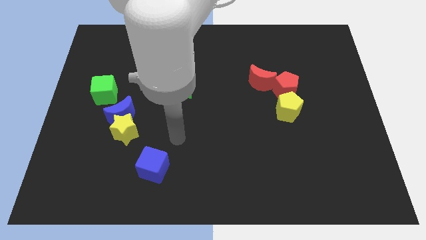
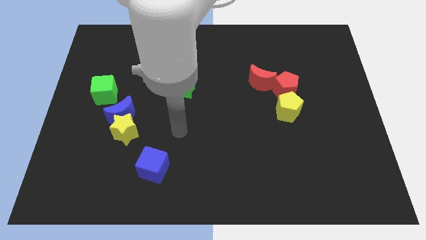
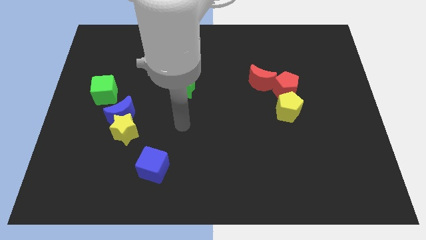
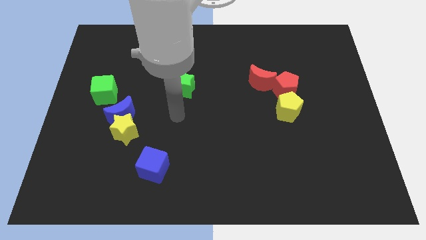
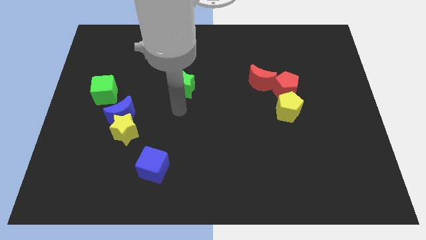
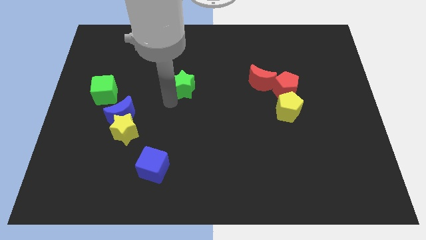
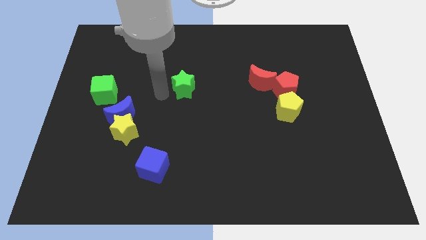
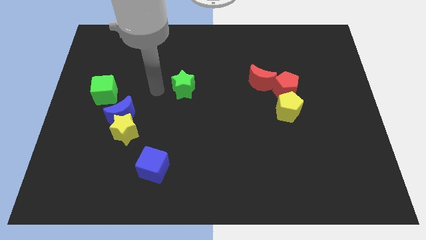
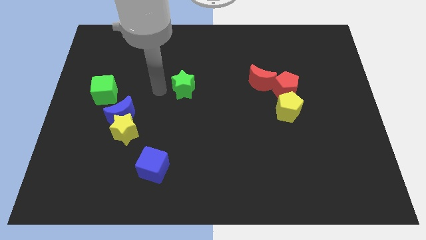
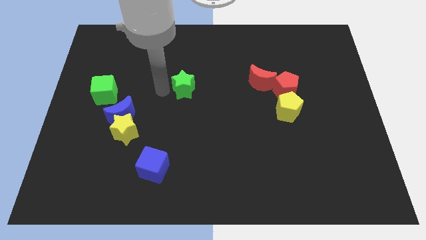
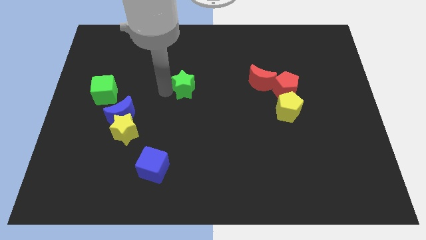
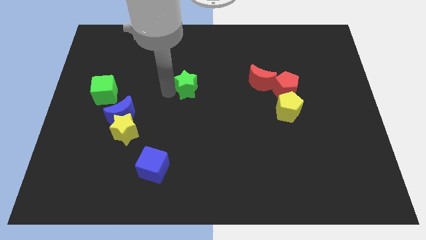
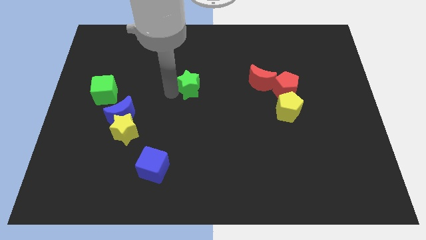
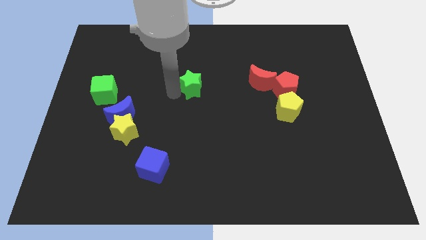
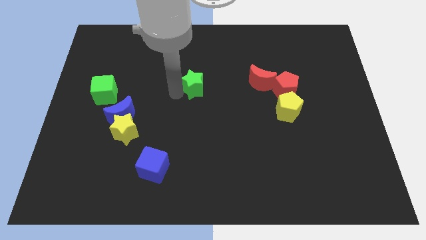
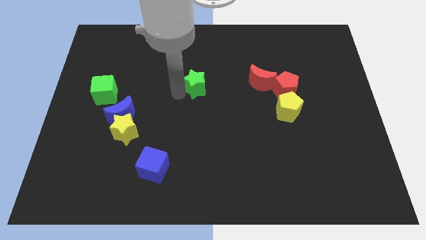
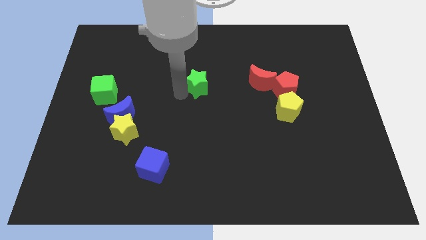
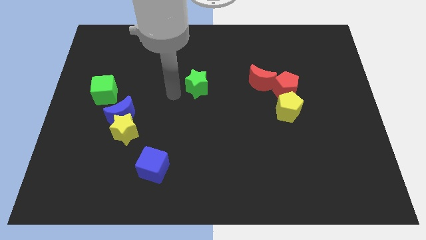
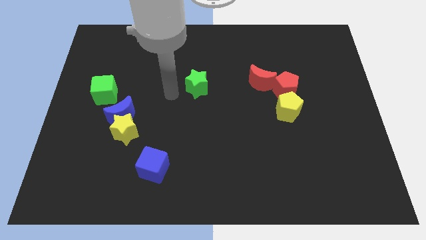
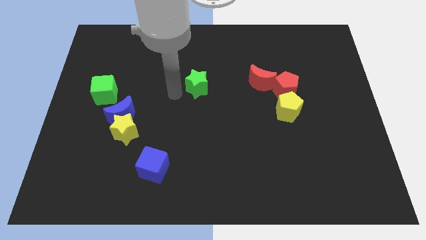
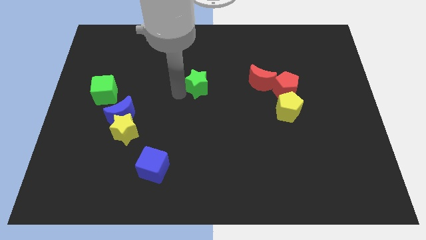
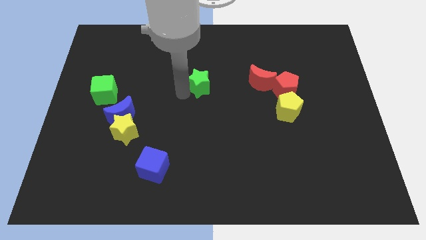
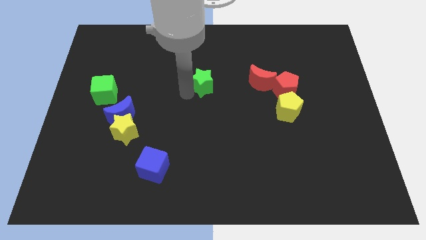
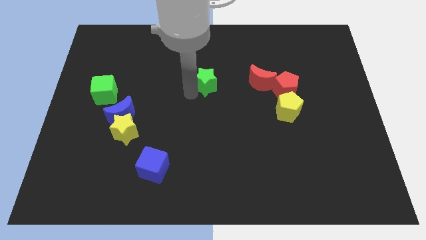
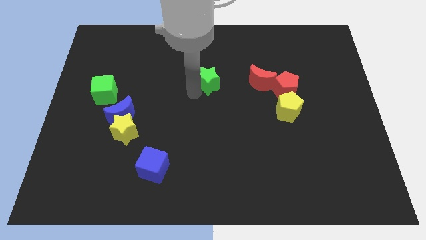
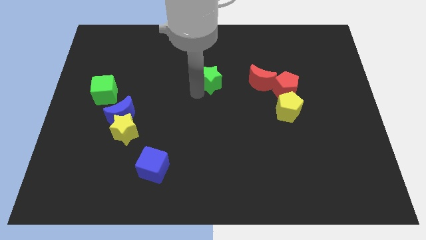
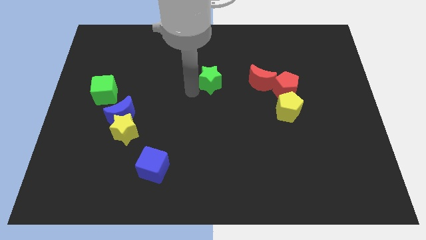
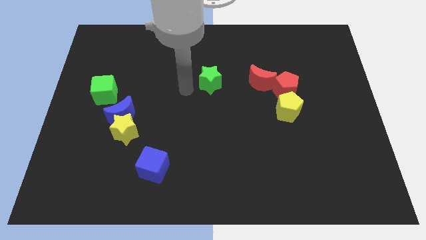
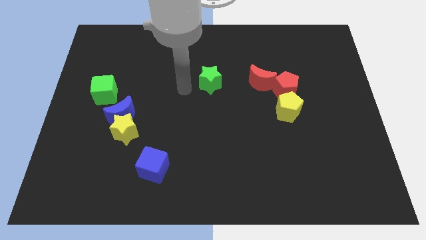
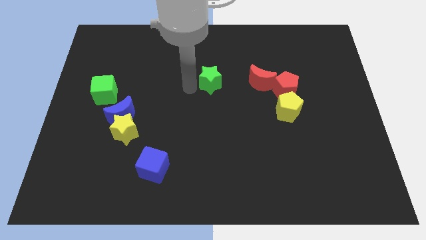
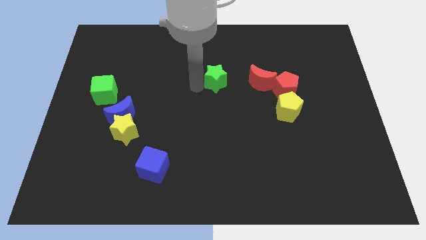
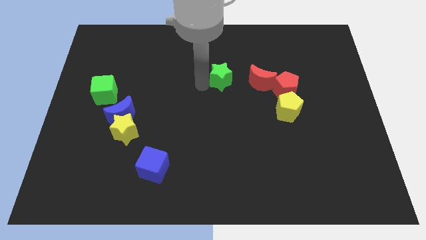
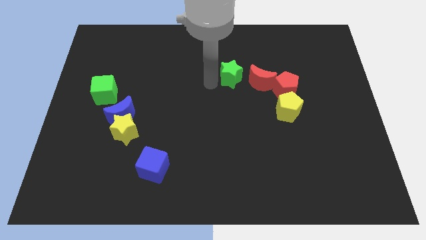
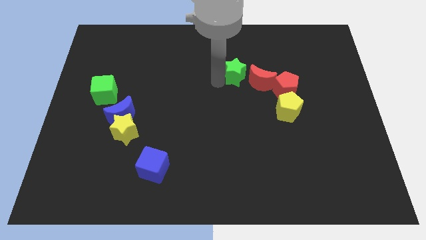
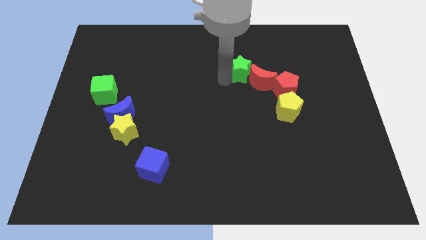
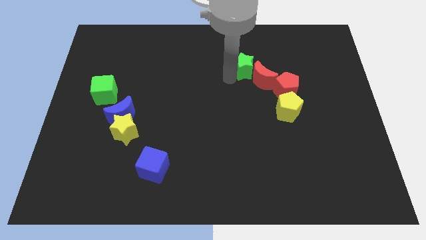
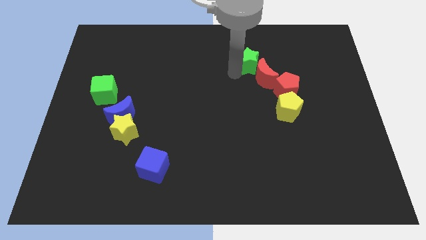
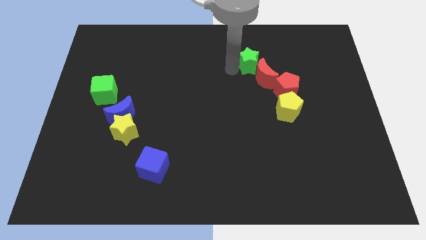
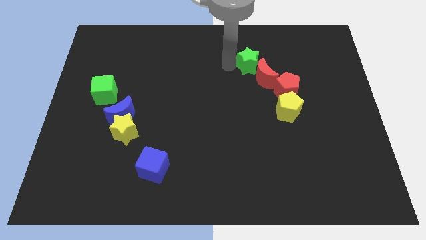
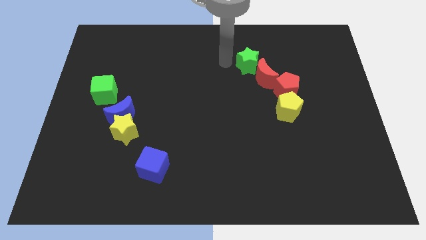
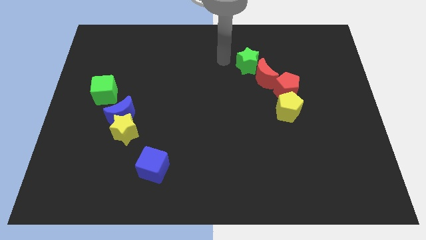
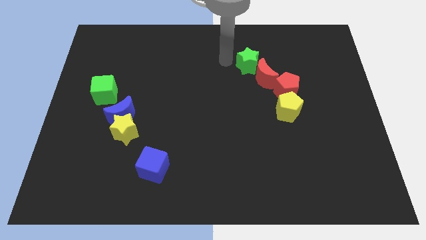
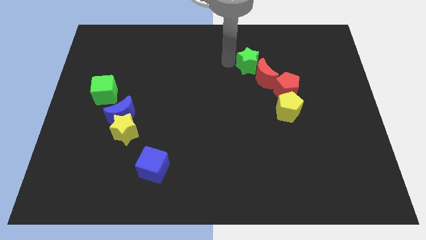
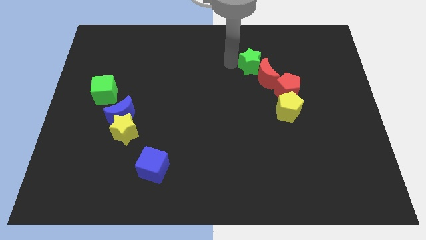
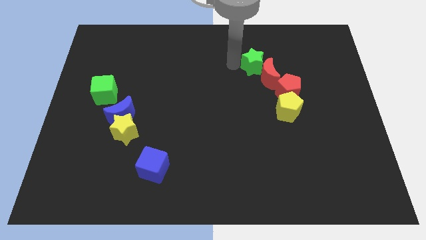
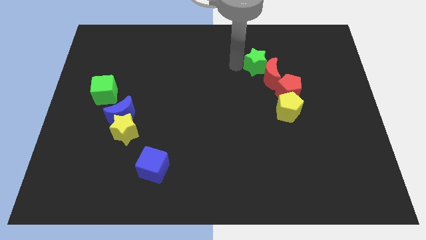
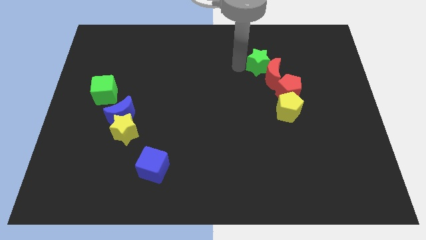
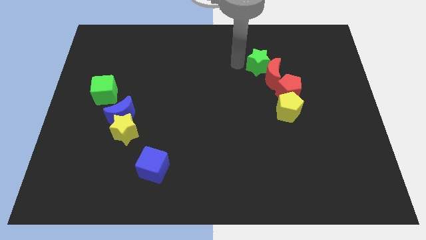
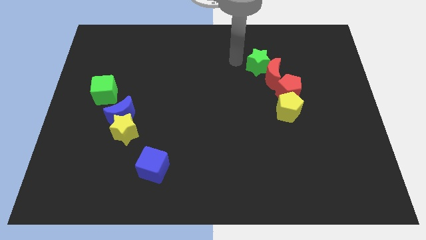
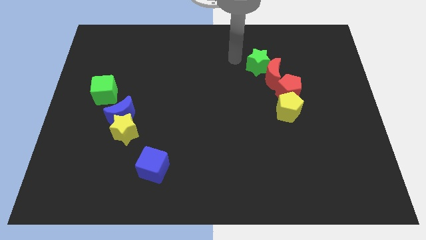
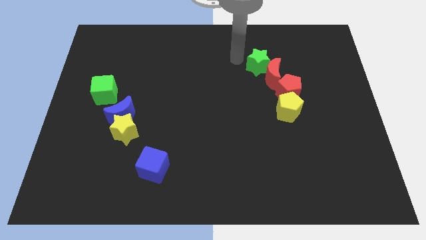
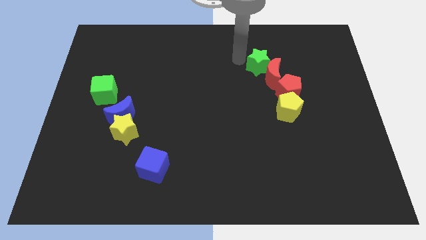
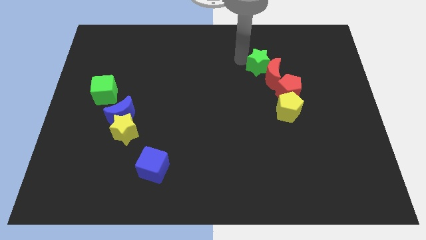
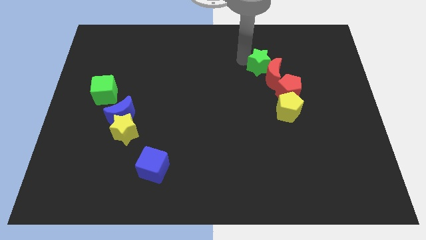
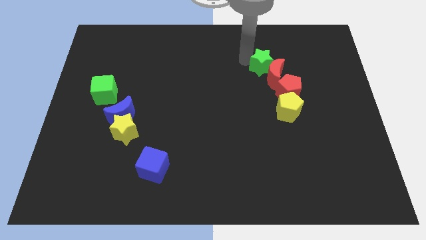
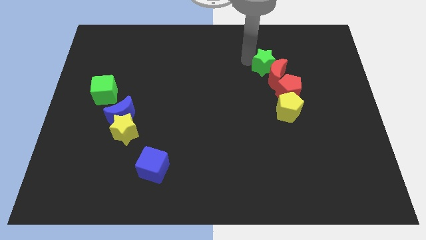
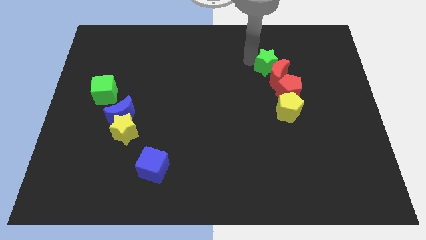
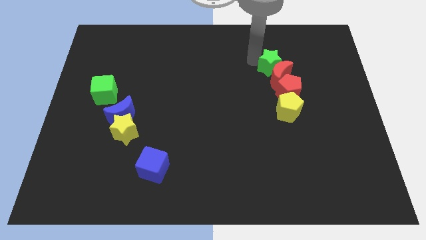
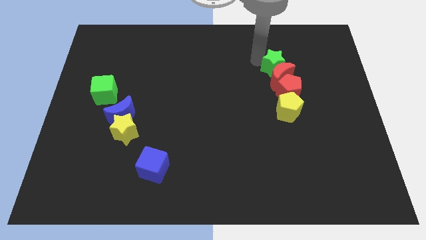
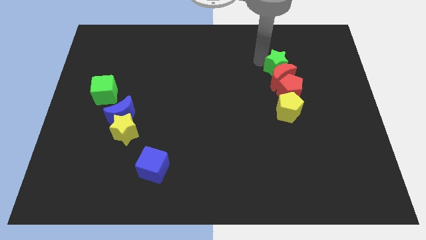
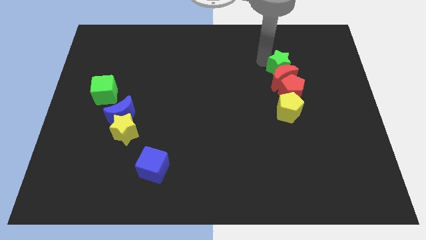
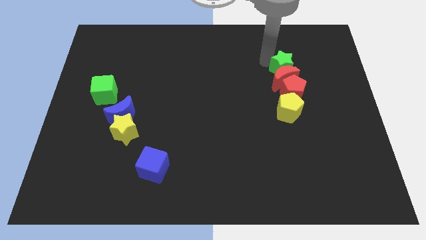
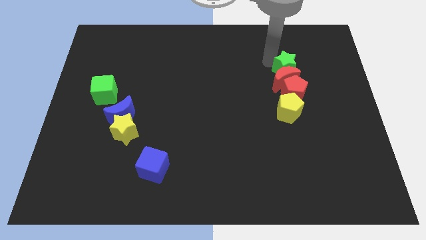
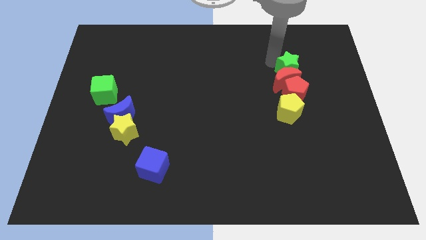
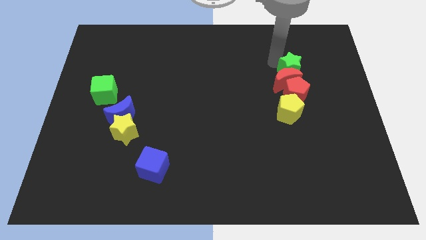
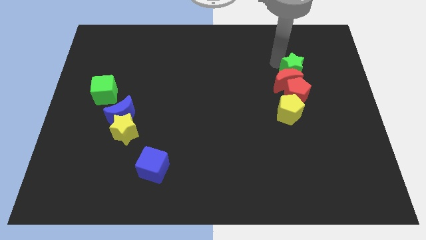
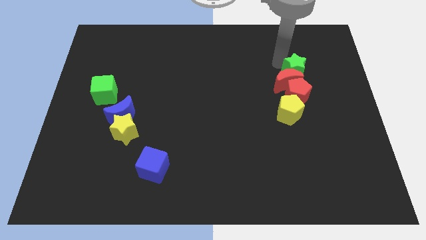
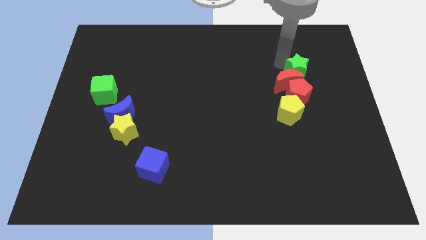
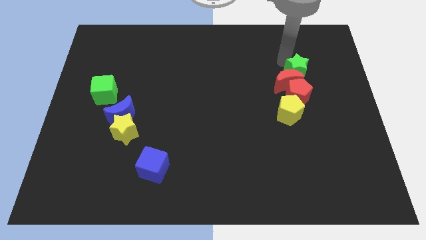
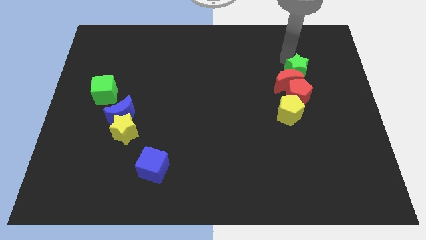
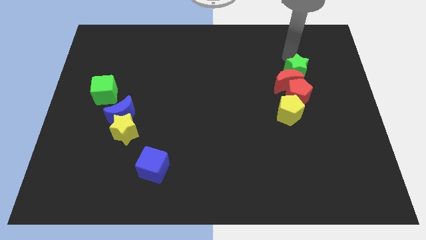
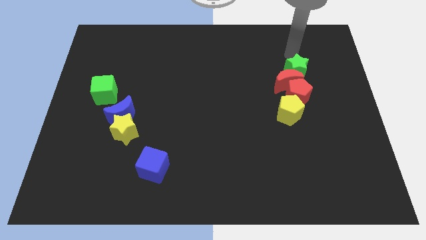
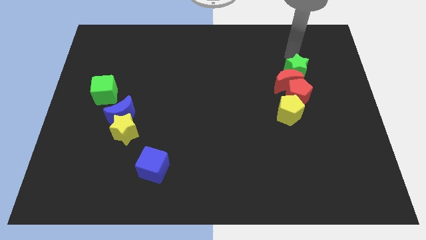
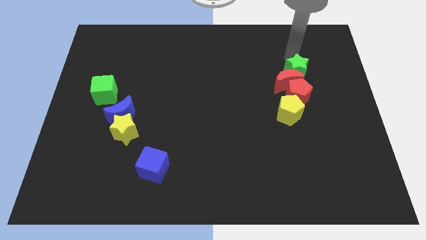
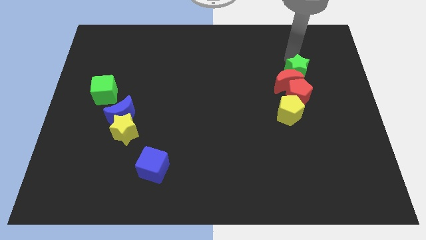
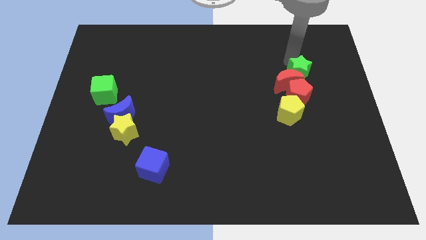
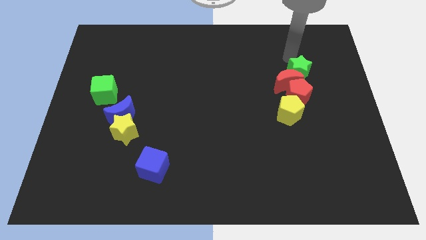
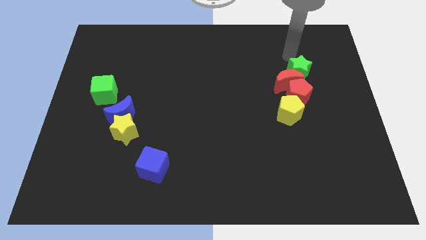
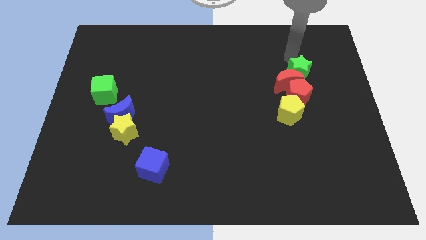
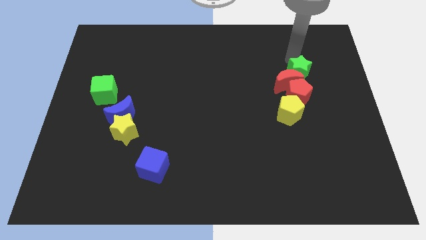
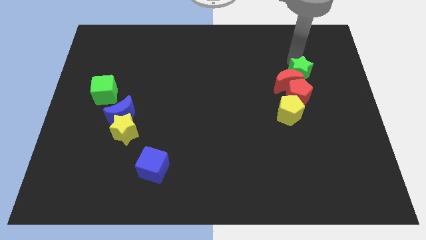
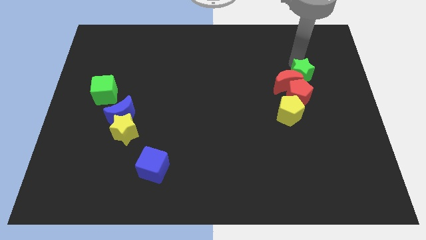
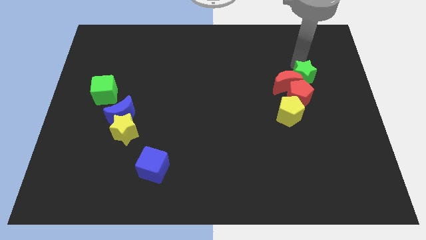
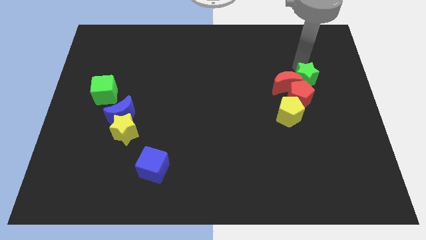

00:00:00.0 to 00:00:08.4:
put the green star diagonally up and to the right of the yellow pentagon
